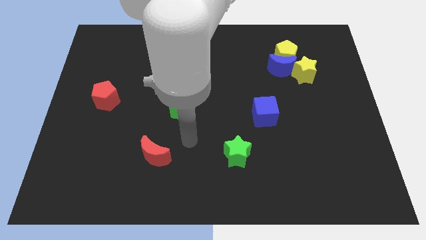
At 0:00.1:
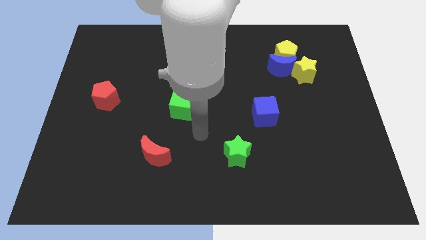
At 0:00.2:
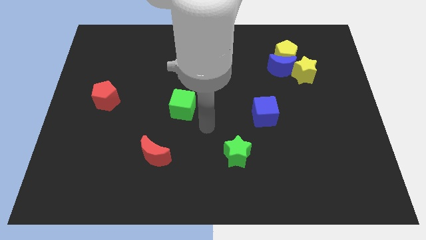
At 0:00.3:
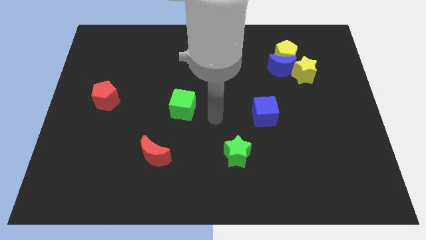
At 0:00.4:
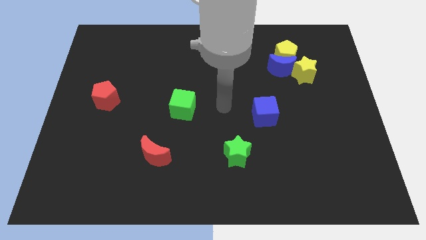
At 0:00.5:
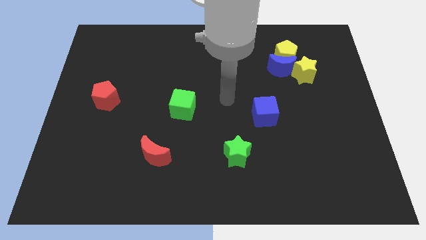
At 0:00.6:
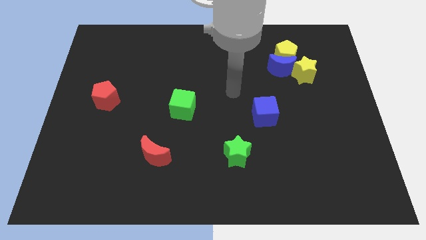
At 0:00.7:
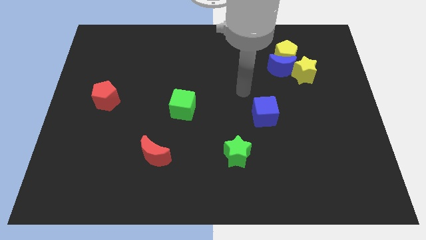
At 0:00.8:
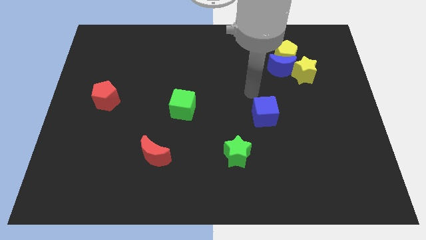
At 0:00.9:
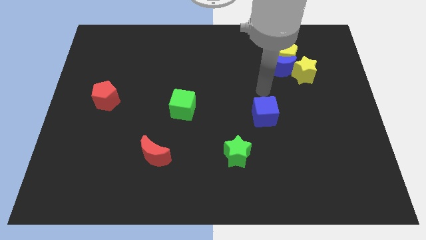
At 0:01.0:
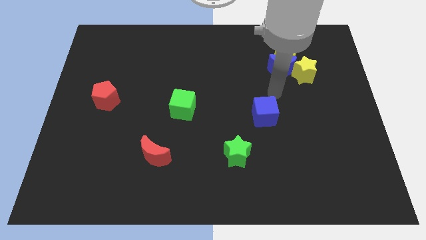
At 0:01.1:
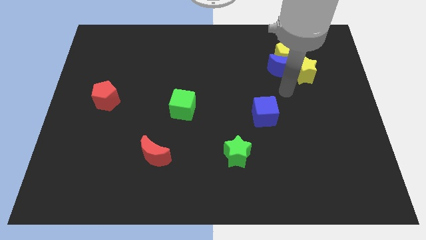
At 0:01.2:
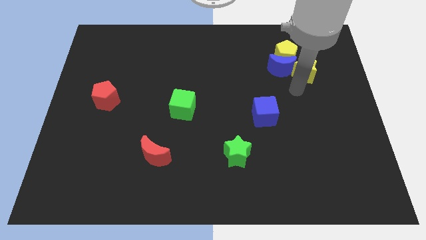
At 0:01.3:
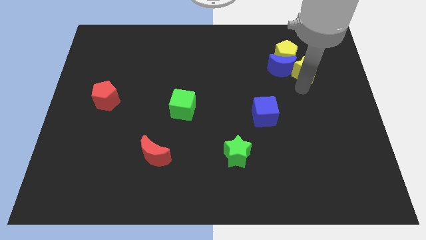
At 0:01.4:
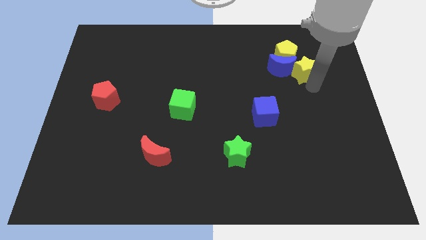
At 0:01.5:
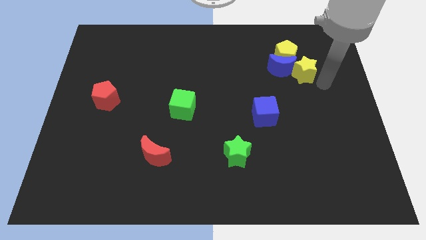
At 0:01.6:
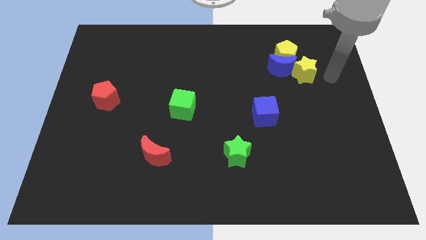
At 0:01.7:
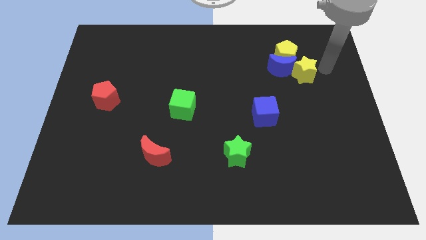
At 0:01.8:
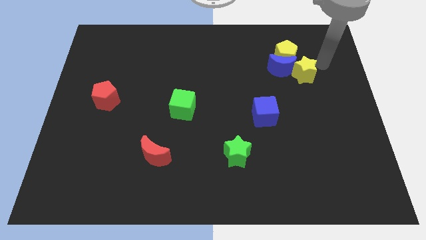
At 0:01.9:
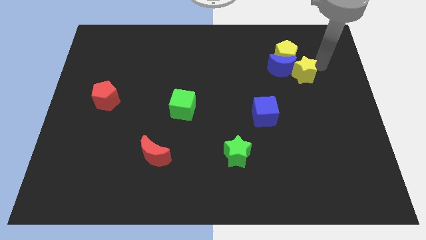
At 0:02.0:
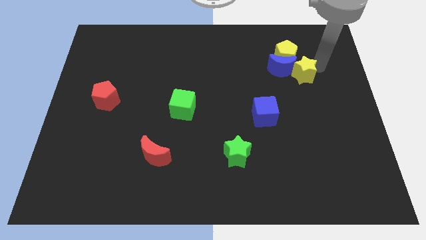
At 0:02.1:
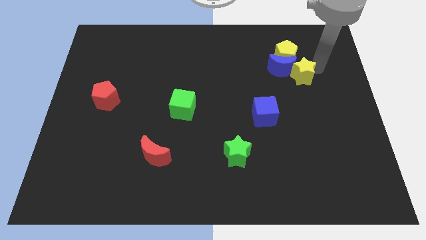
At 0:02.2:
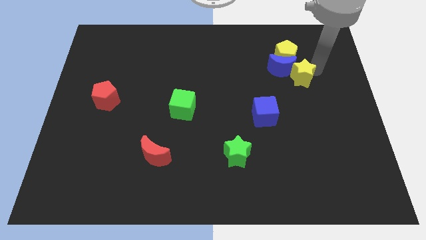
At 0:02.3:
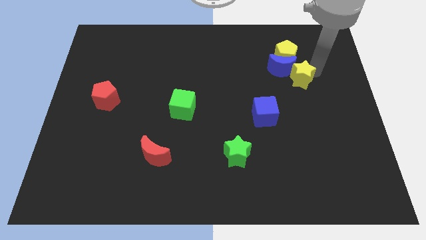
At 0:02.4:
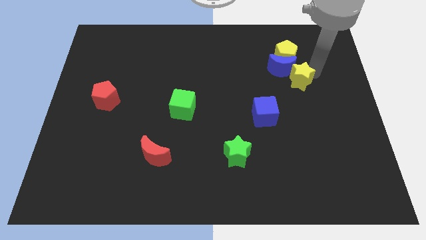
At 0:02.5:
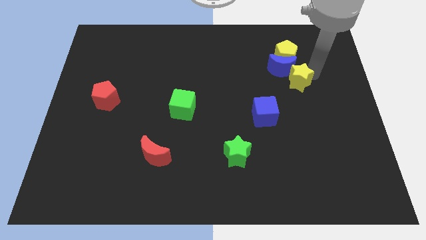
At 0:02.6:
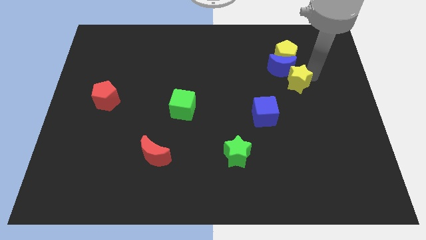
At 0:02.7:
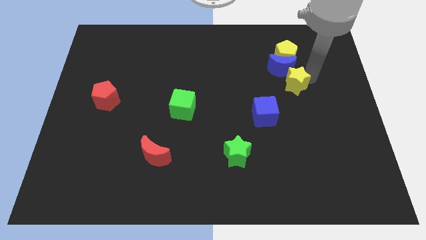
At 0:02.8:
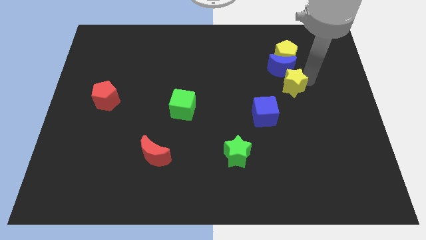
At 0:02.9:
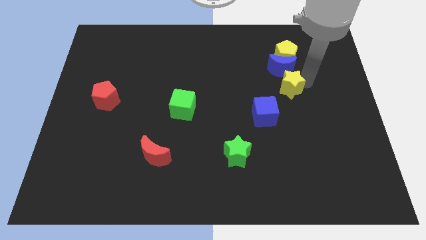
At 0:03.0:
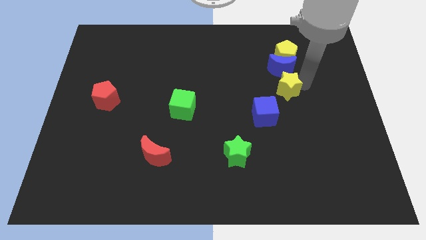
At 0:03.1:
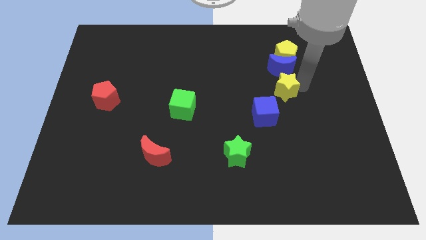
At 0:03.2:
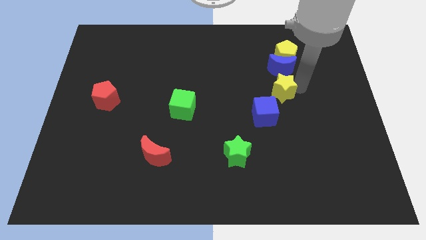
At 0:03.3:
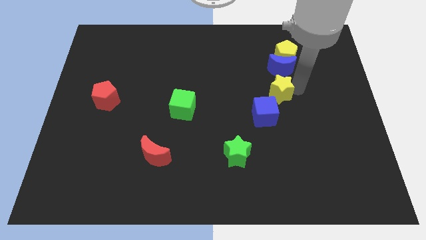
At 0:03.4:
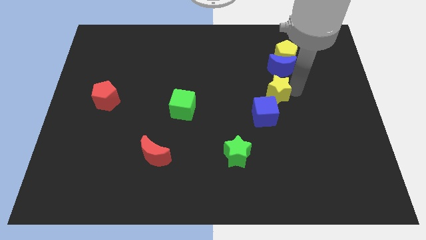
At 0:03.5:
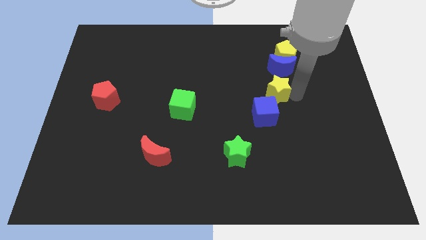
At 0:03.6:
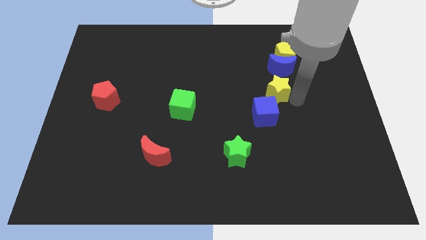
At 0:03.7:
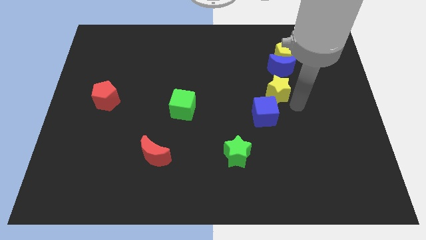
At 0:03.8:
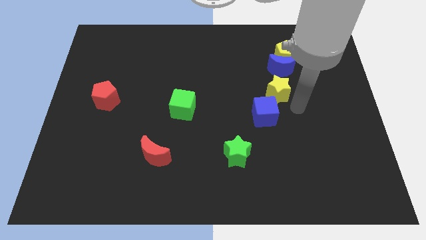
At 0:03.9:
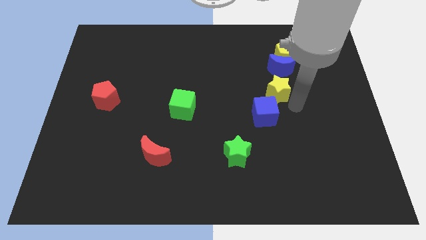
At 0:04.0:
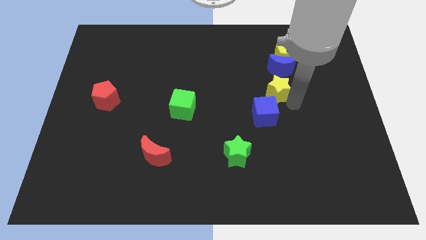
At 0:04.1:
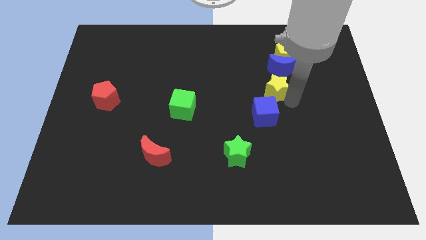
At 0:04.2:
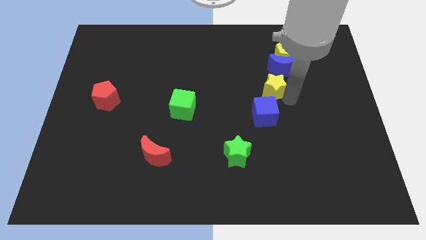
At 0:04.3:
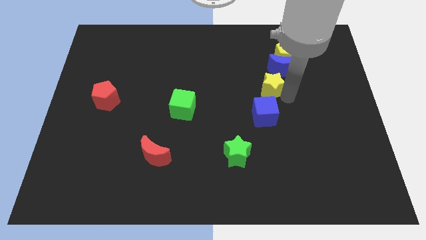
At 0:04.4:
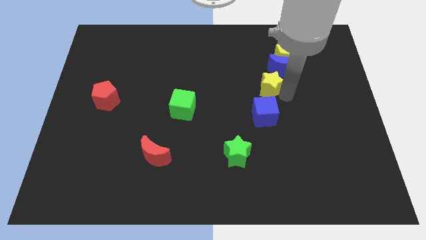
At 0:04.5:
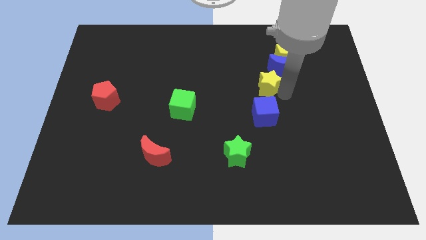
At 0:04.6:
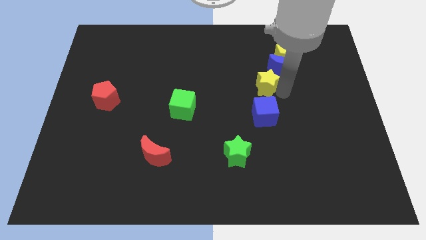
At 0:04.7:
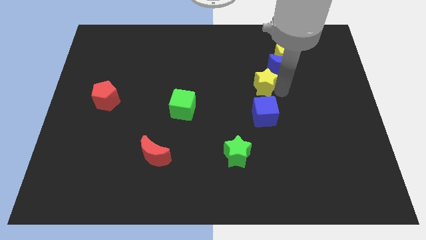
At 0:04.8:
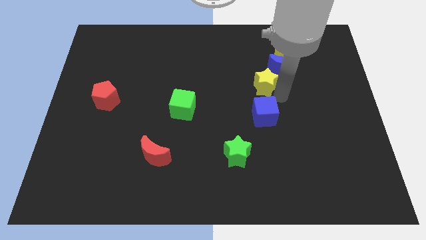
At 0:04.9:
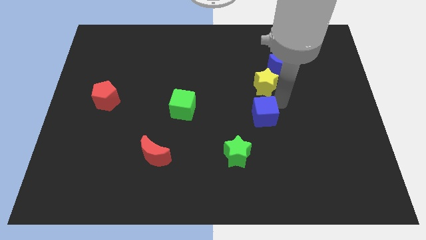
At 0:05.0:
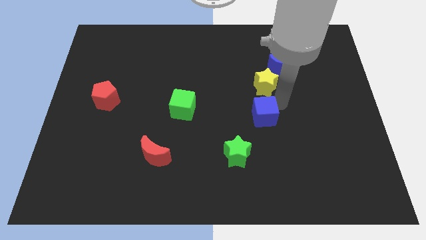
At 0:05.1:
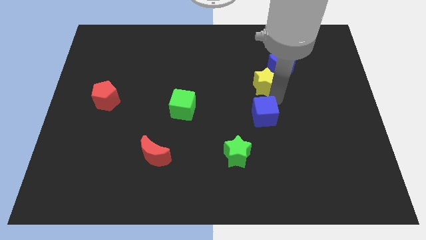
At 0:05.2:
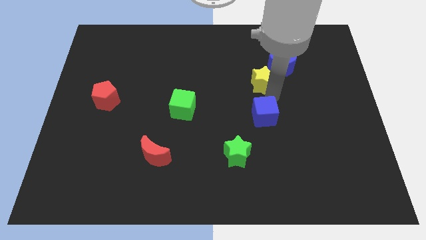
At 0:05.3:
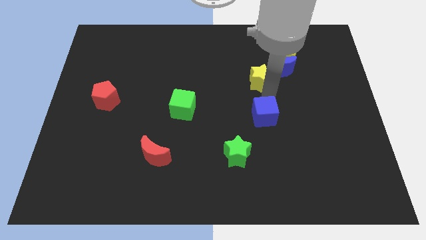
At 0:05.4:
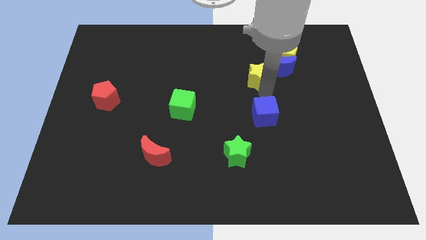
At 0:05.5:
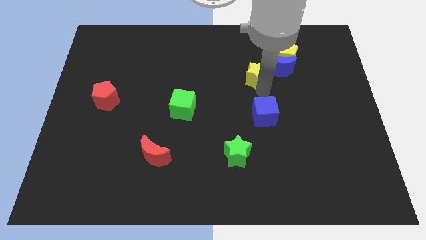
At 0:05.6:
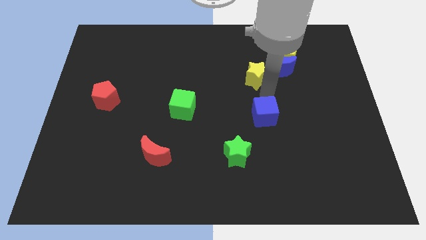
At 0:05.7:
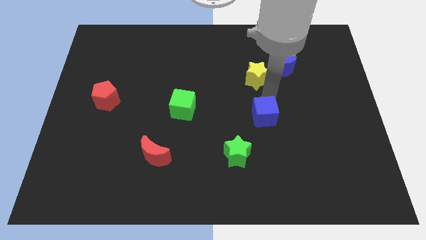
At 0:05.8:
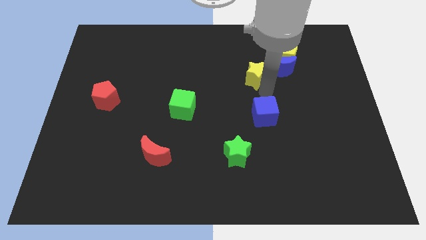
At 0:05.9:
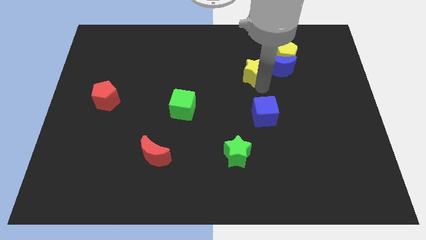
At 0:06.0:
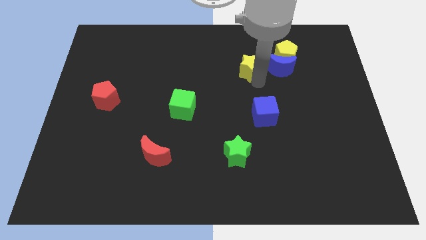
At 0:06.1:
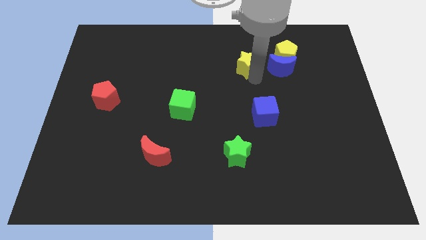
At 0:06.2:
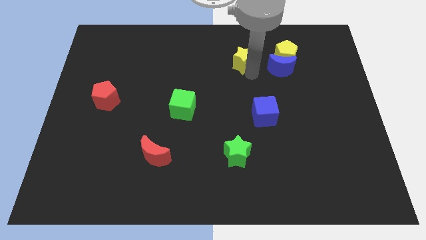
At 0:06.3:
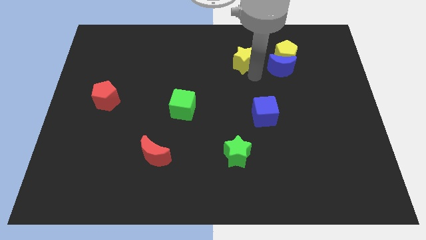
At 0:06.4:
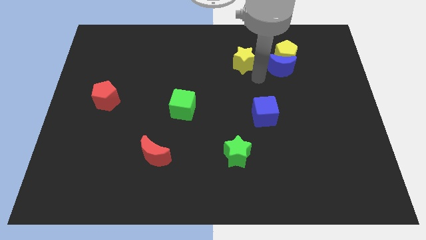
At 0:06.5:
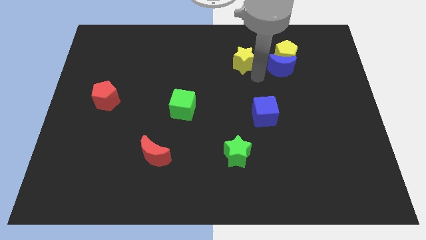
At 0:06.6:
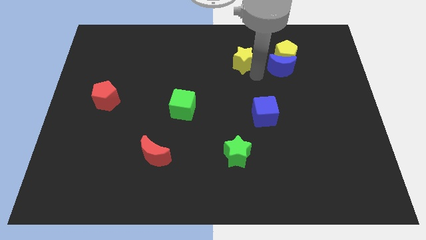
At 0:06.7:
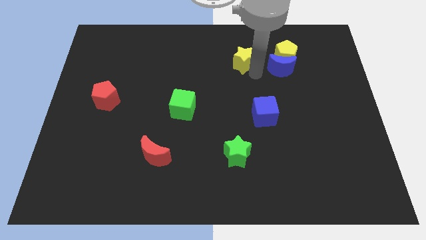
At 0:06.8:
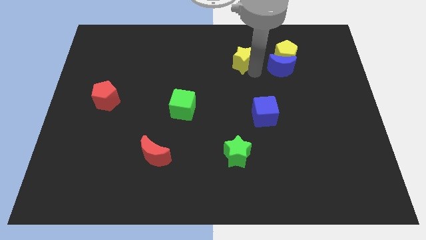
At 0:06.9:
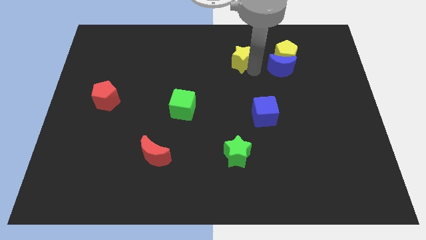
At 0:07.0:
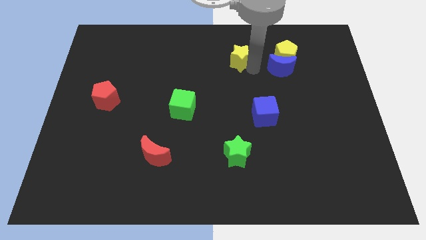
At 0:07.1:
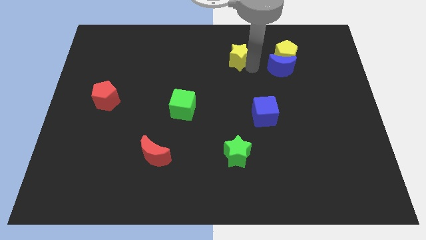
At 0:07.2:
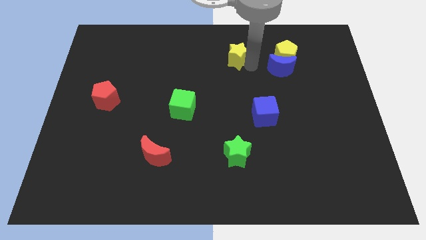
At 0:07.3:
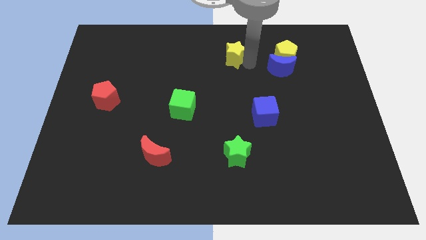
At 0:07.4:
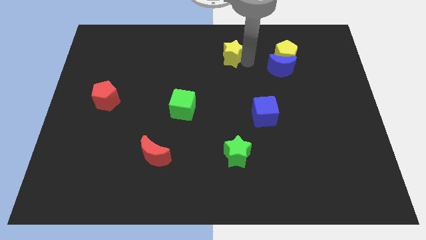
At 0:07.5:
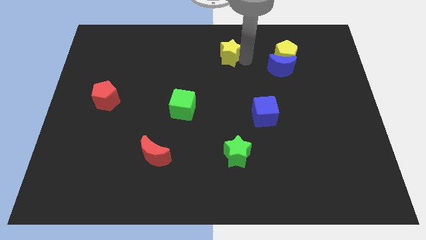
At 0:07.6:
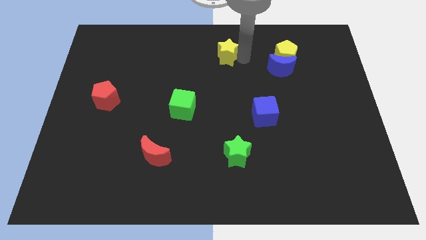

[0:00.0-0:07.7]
put the yellow star to the top side
